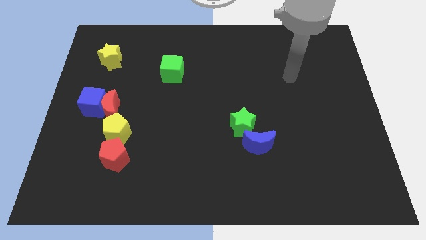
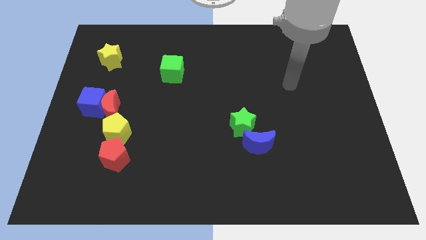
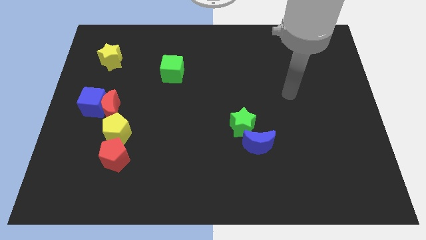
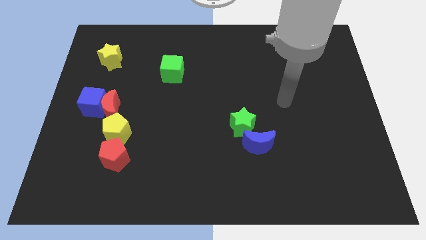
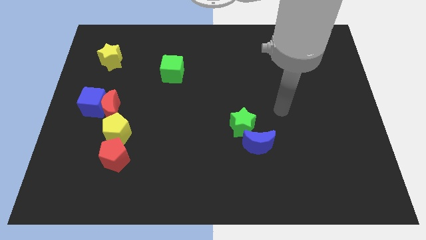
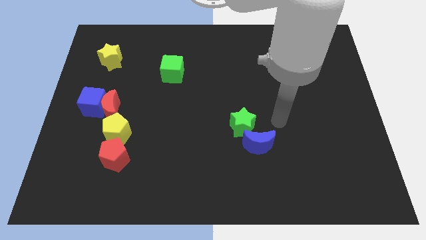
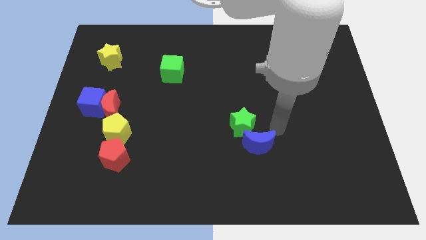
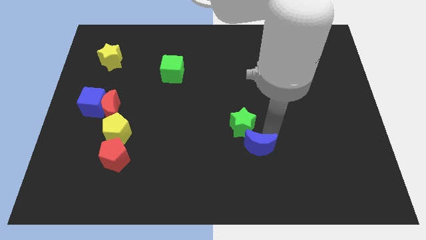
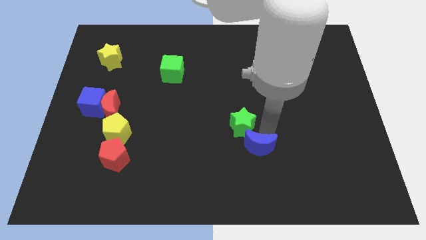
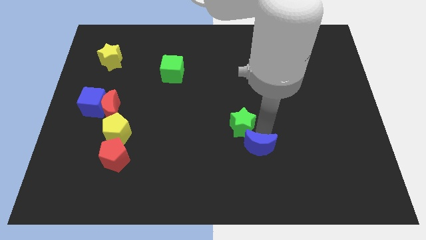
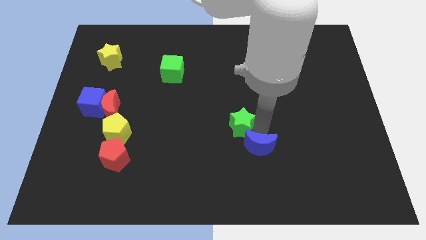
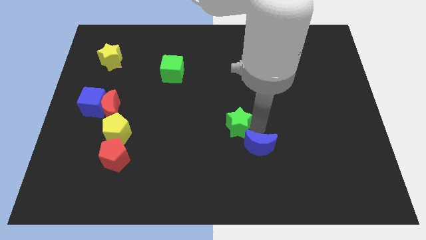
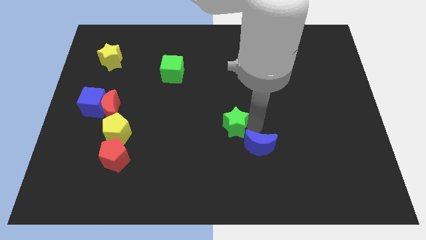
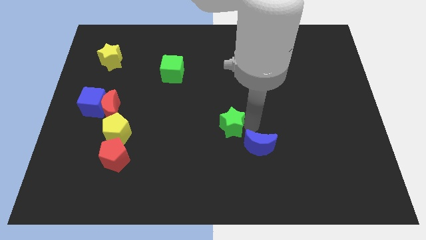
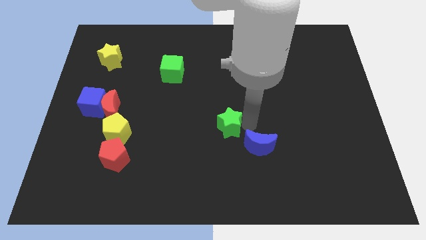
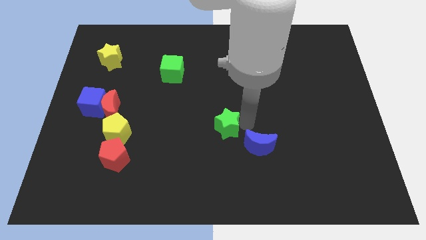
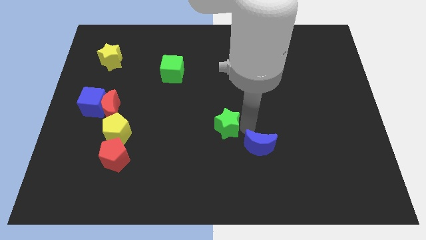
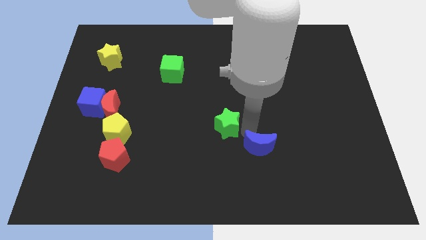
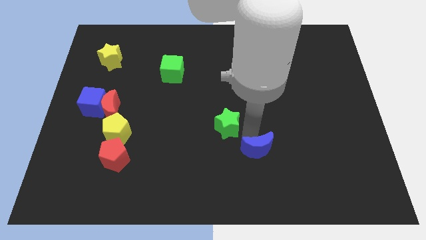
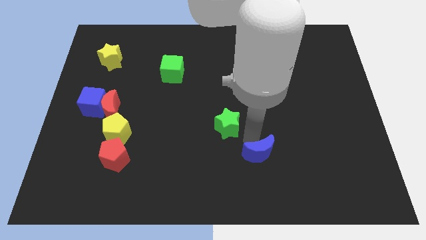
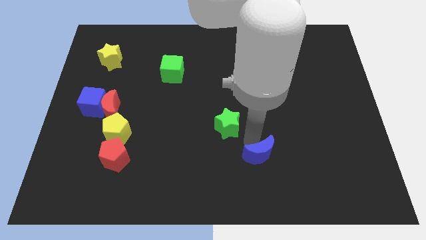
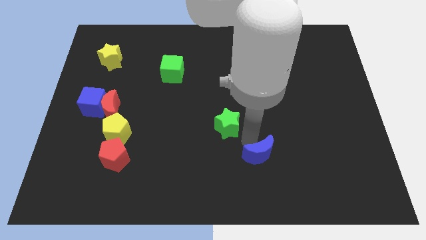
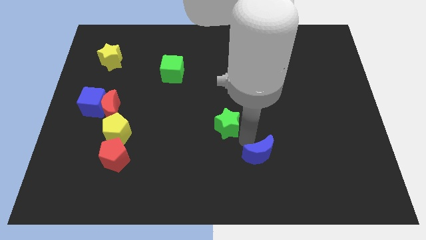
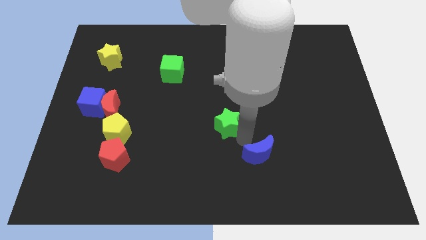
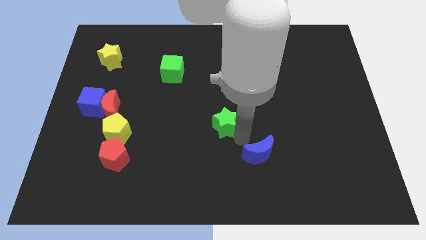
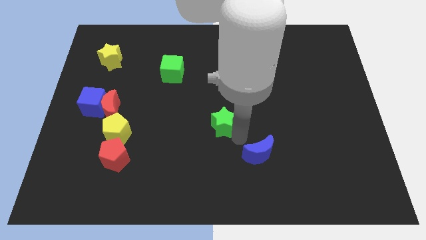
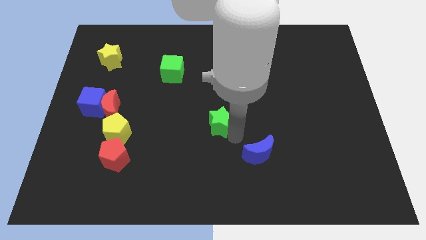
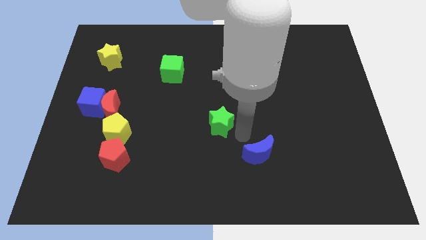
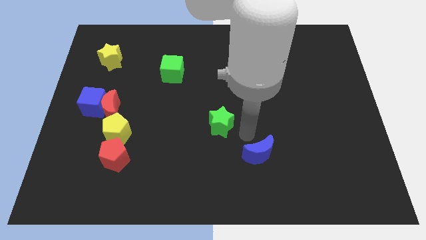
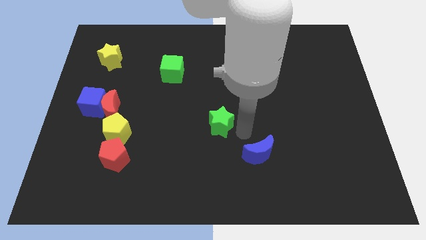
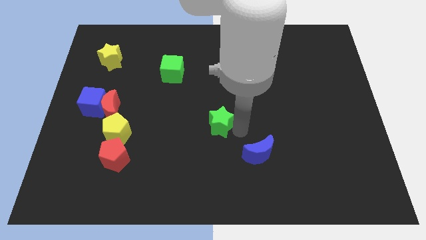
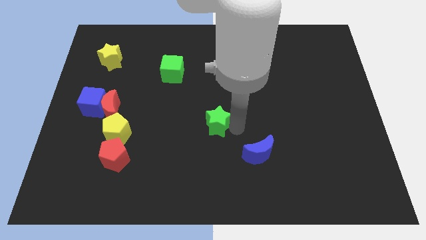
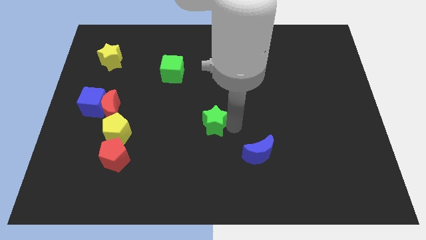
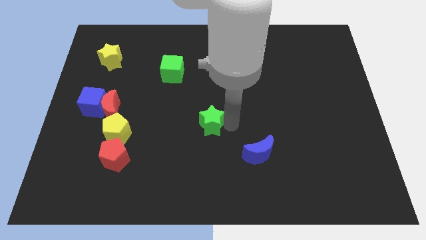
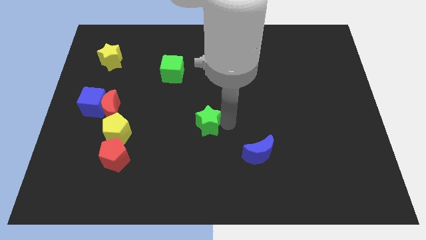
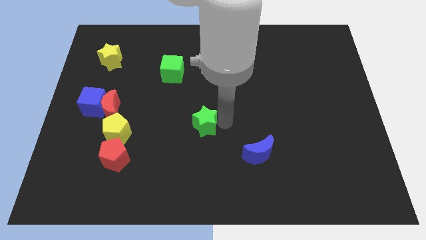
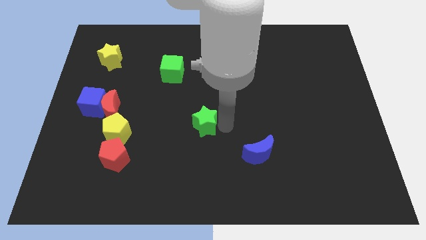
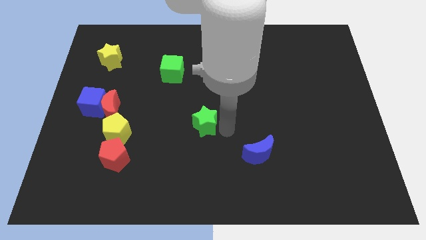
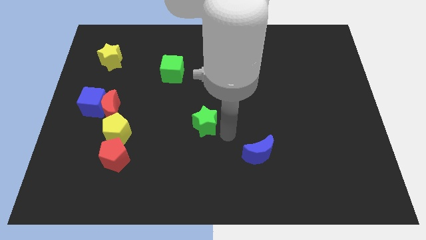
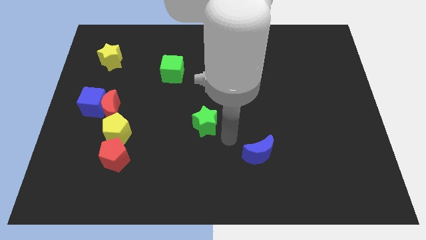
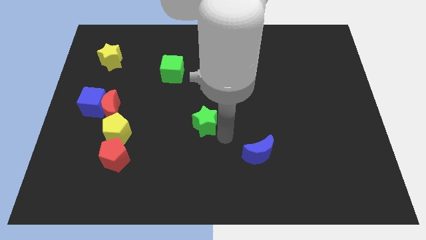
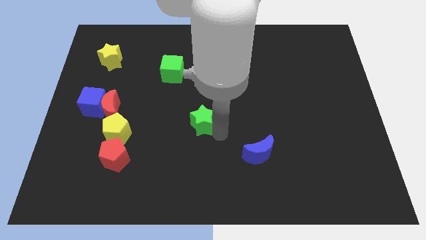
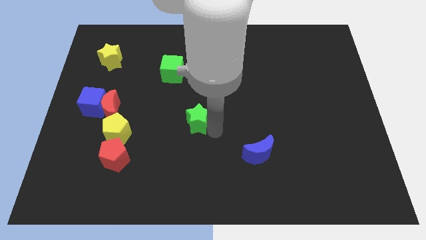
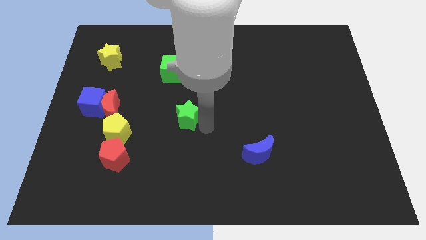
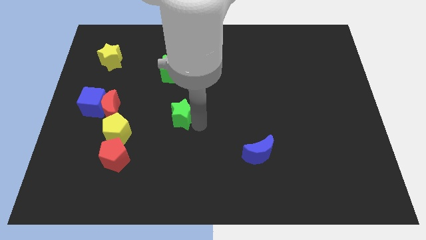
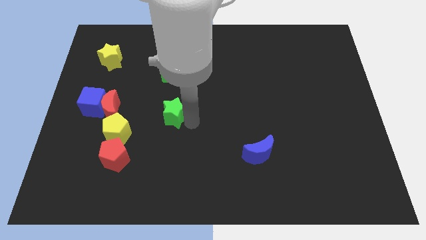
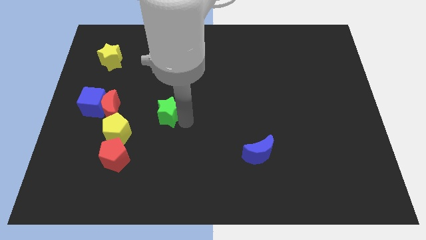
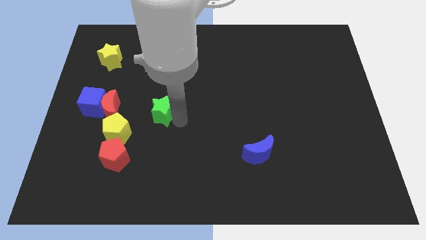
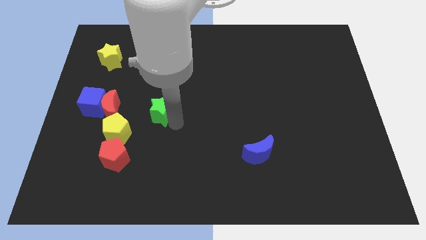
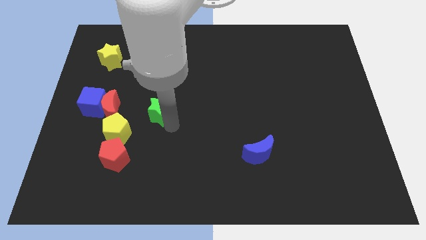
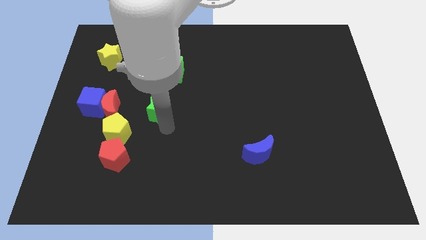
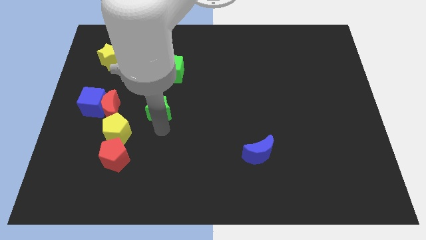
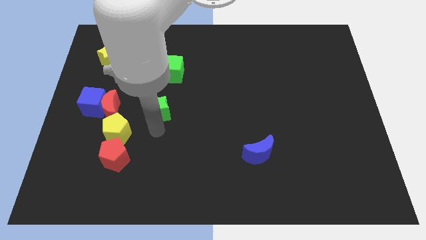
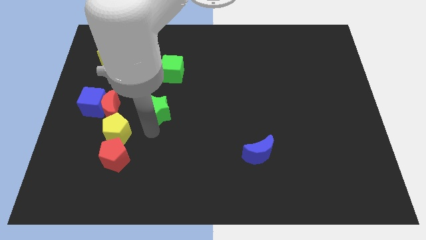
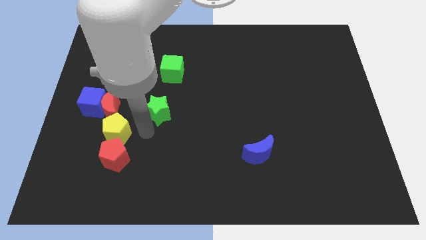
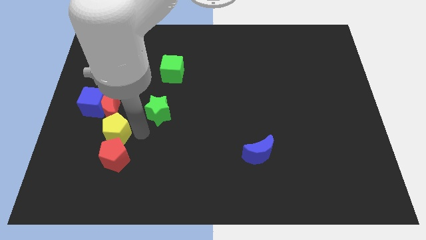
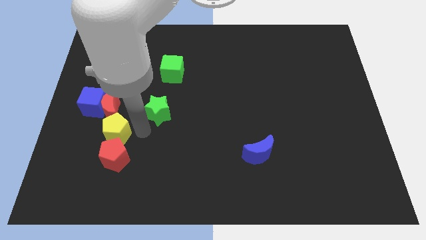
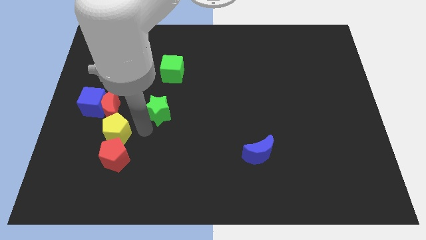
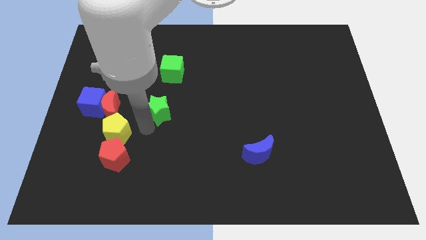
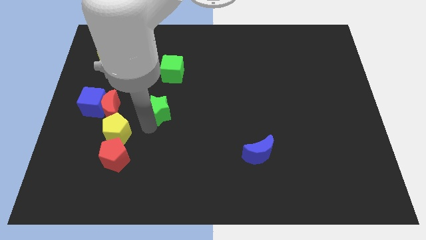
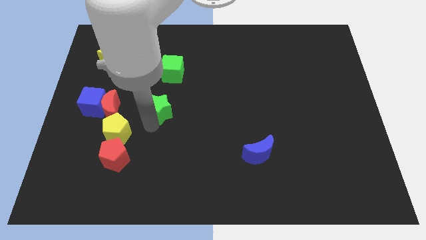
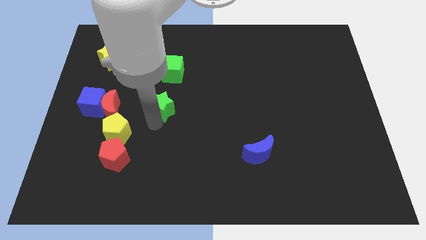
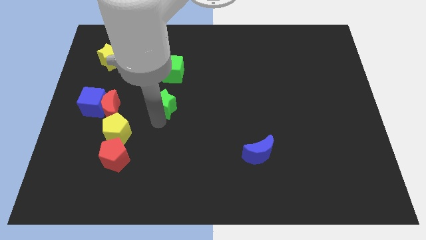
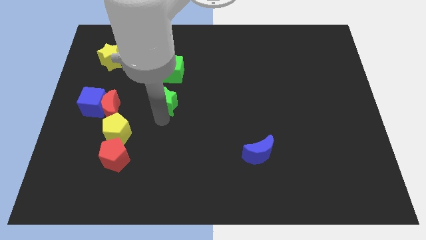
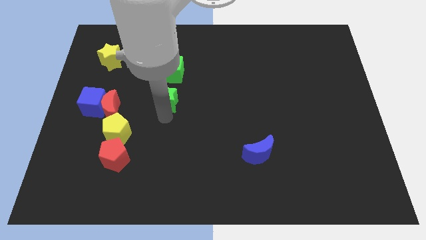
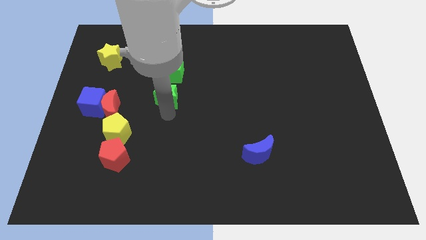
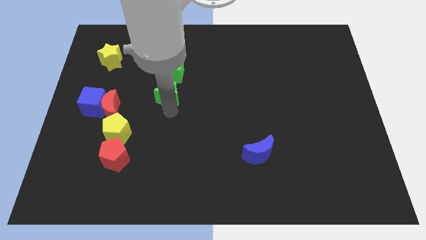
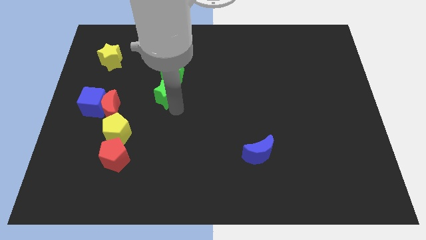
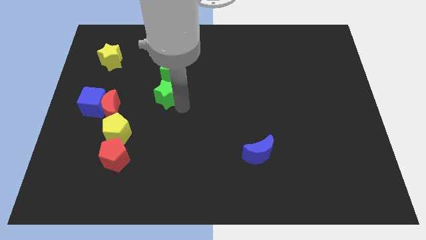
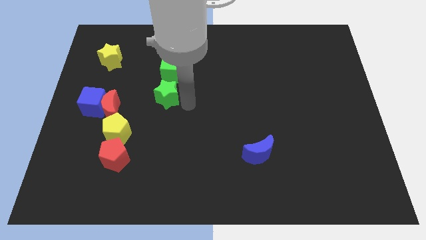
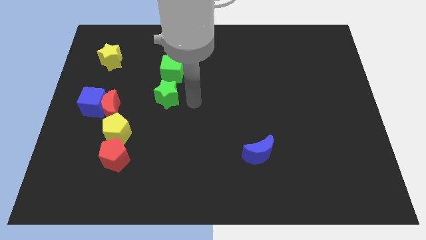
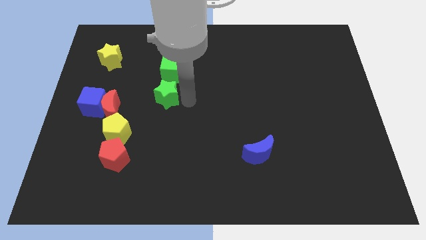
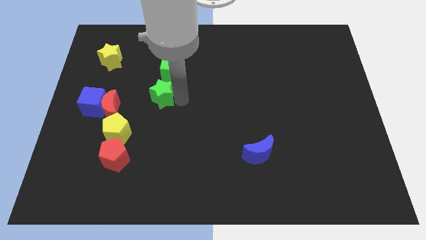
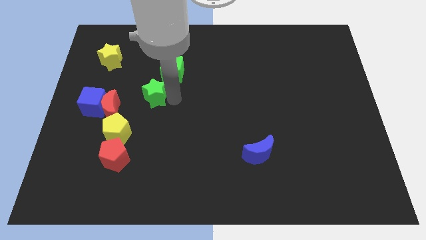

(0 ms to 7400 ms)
slide the green star to the top right side of the red moon
